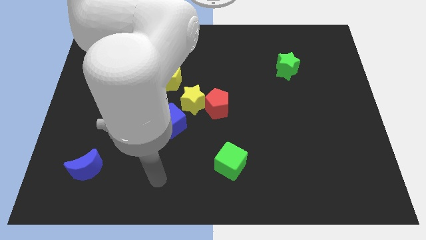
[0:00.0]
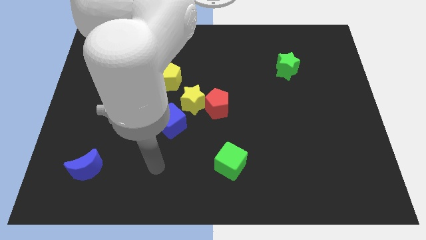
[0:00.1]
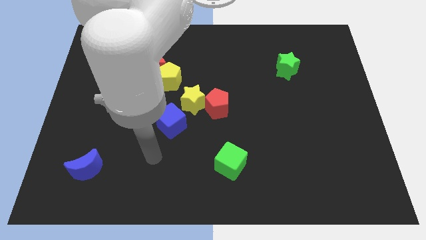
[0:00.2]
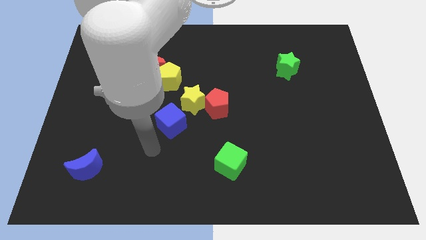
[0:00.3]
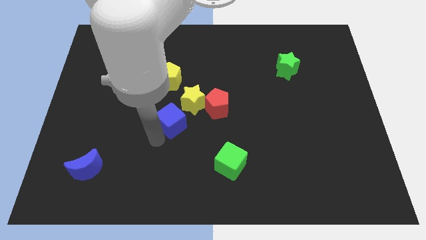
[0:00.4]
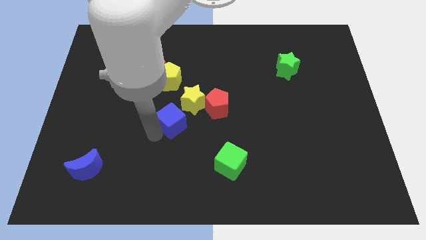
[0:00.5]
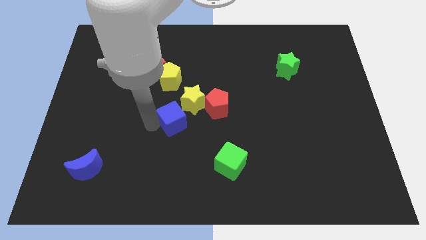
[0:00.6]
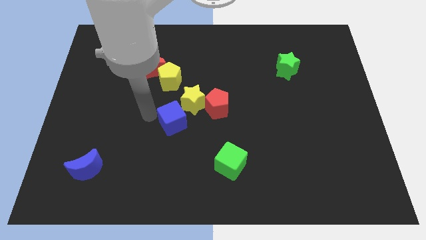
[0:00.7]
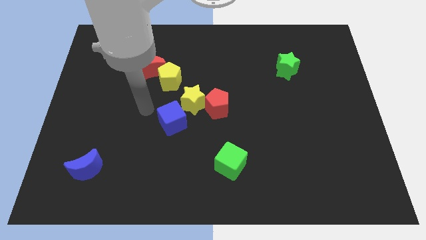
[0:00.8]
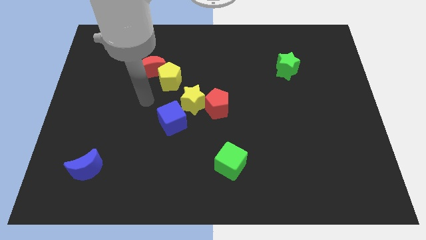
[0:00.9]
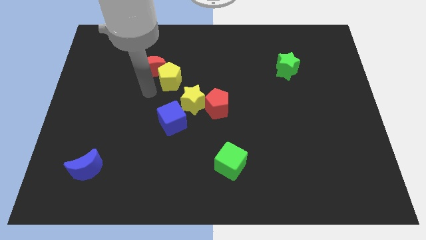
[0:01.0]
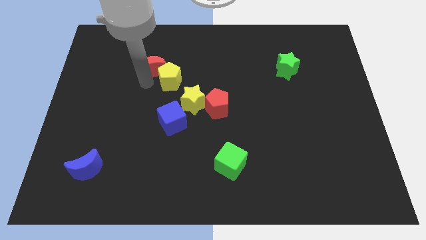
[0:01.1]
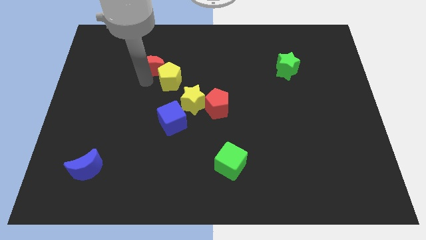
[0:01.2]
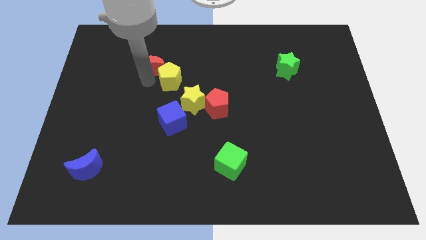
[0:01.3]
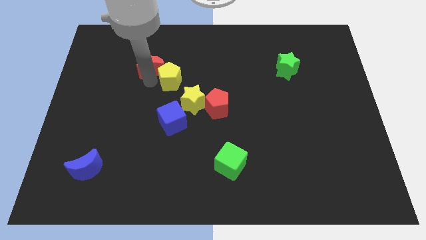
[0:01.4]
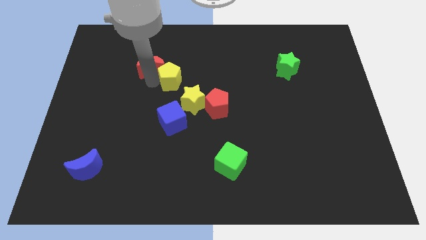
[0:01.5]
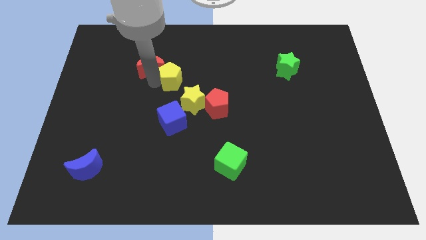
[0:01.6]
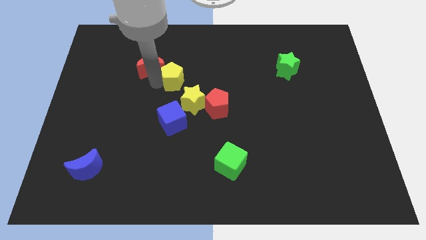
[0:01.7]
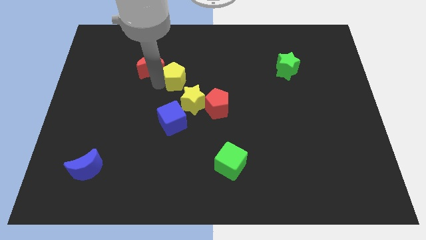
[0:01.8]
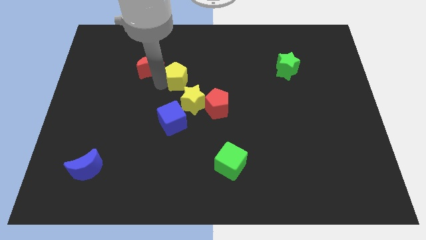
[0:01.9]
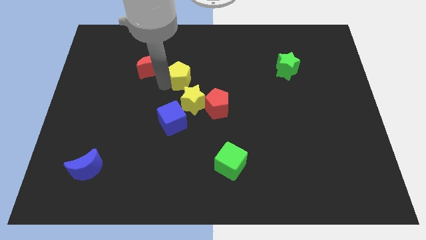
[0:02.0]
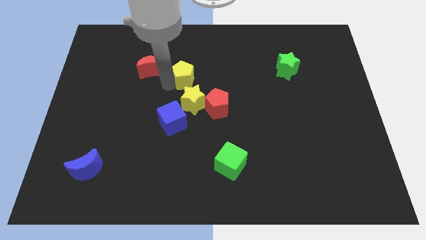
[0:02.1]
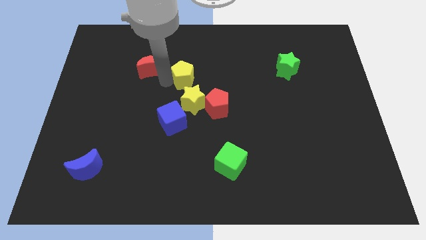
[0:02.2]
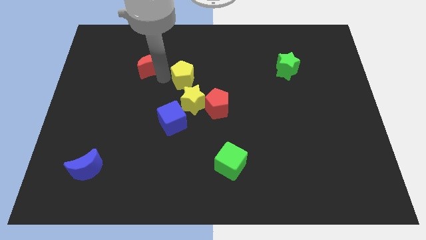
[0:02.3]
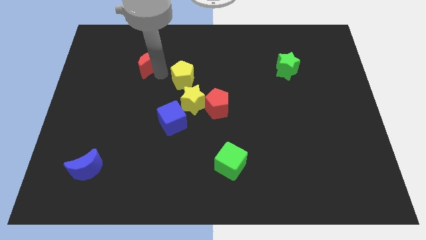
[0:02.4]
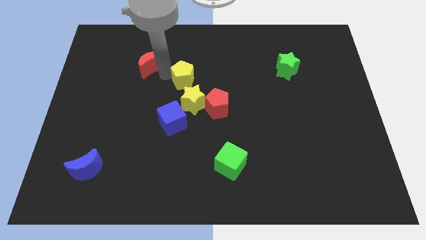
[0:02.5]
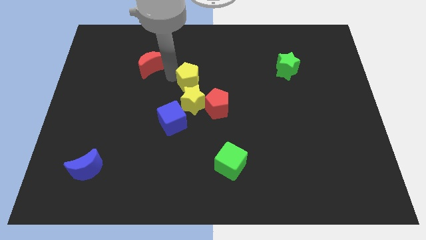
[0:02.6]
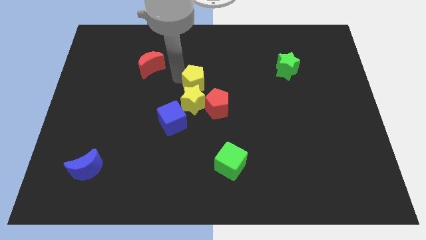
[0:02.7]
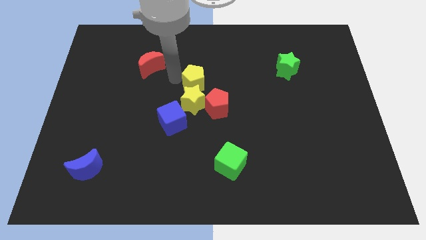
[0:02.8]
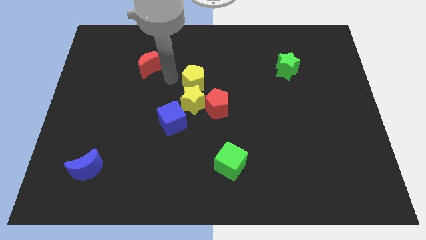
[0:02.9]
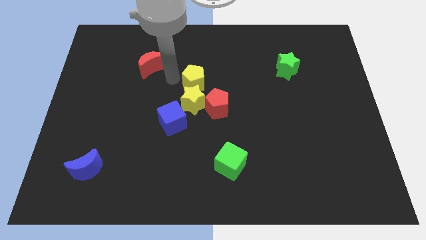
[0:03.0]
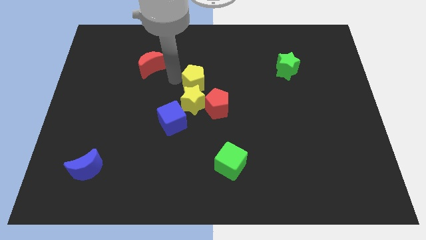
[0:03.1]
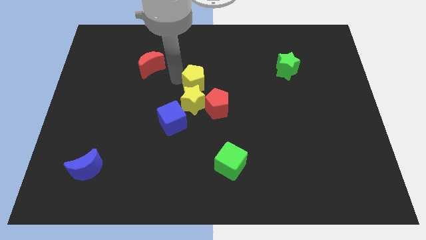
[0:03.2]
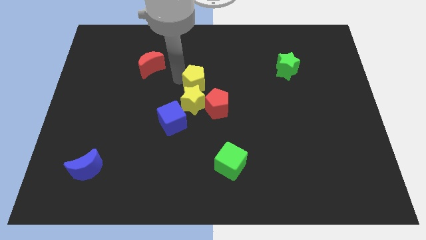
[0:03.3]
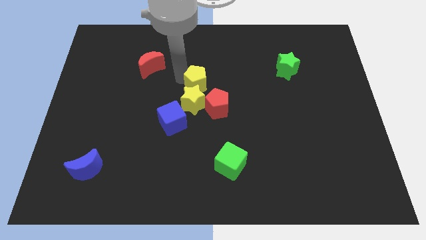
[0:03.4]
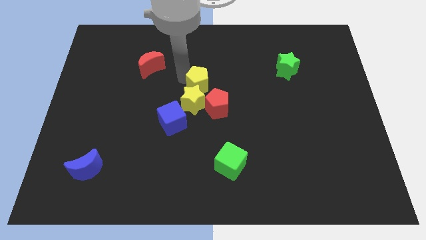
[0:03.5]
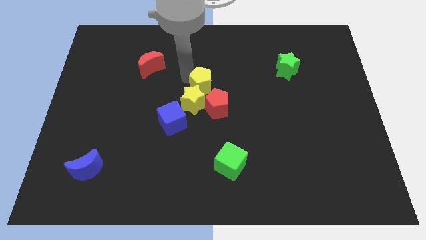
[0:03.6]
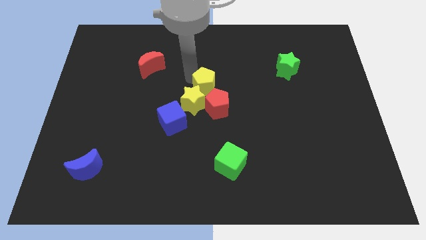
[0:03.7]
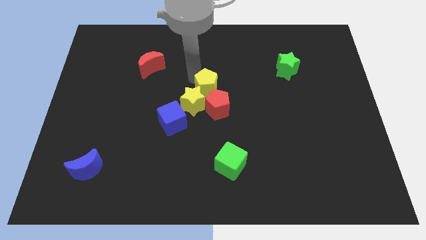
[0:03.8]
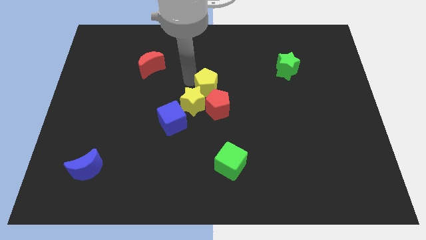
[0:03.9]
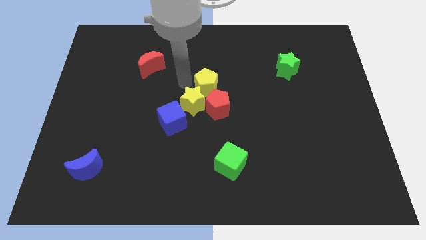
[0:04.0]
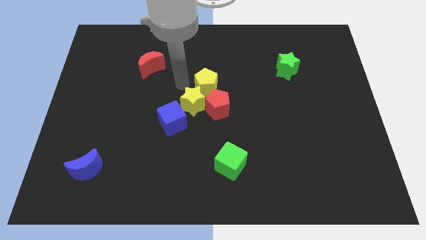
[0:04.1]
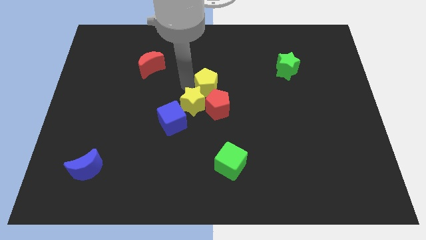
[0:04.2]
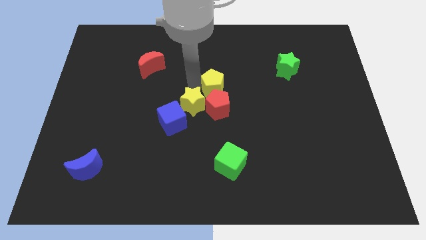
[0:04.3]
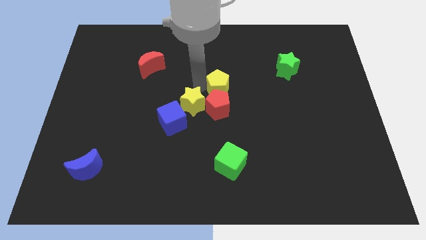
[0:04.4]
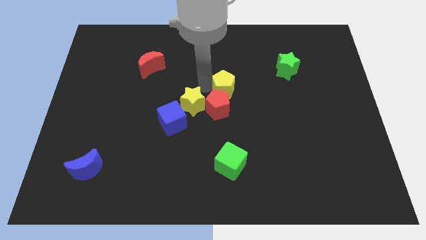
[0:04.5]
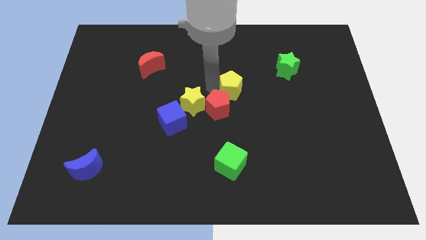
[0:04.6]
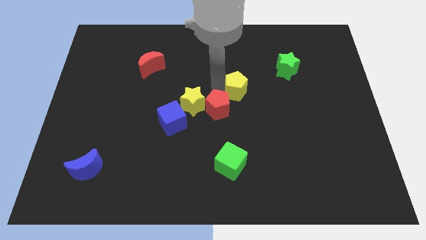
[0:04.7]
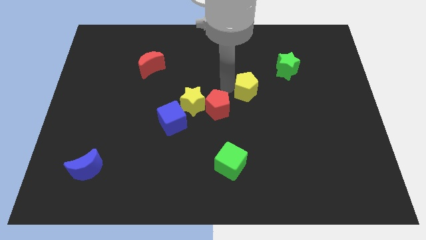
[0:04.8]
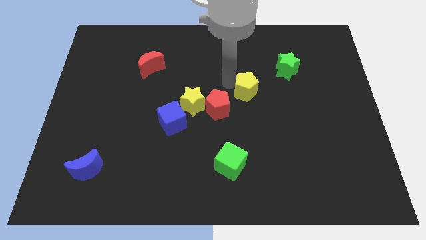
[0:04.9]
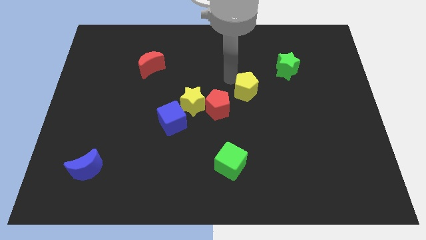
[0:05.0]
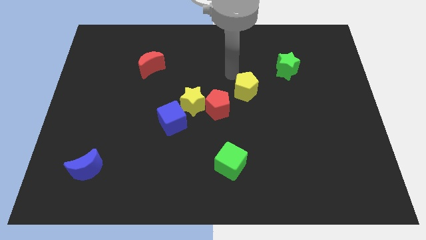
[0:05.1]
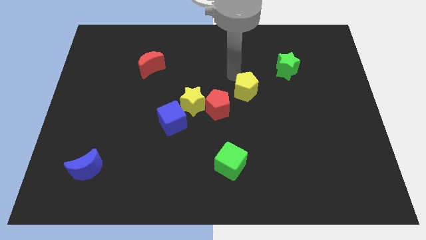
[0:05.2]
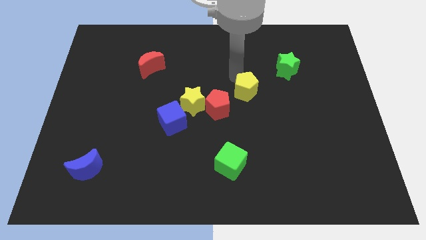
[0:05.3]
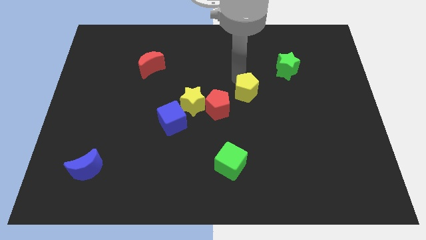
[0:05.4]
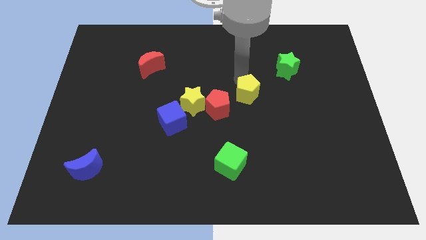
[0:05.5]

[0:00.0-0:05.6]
push the yellow pentagon to the right side of the red pentagon

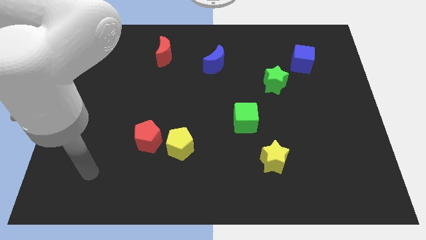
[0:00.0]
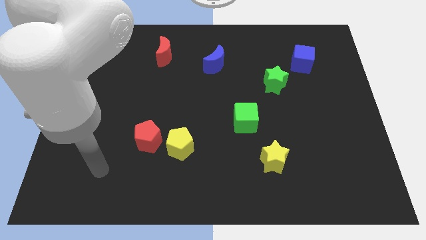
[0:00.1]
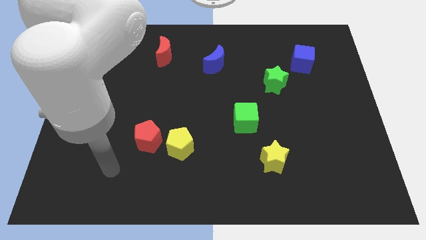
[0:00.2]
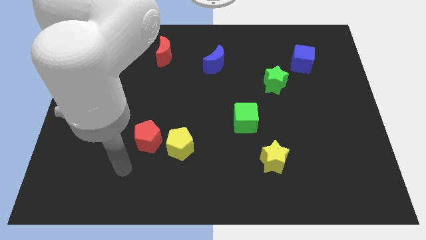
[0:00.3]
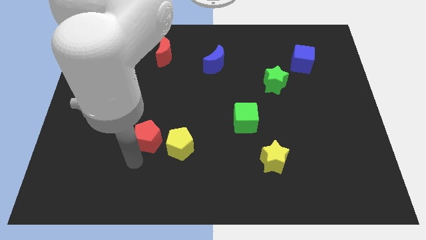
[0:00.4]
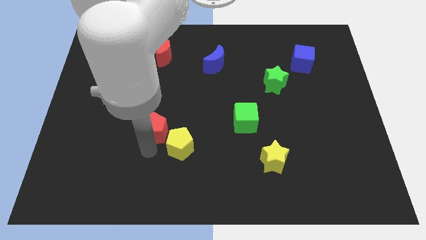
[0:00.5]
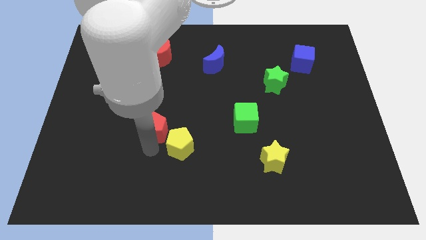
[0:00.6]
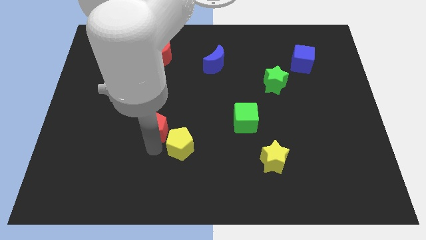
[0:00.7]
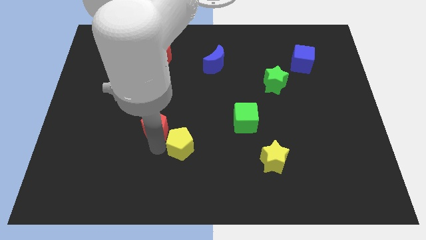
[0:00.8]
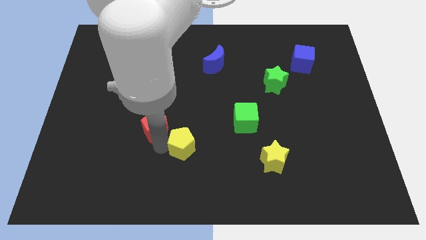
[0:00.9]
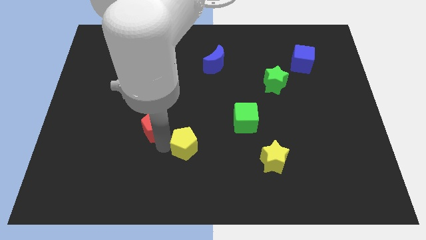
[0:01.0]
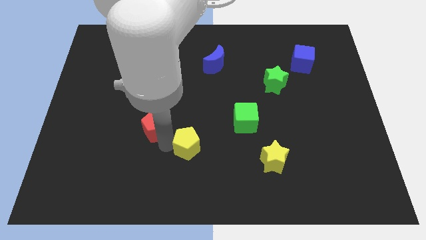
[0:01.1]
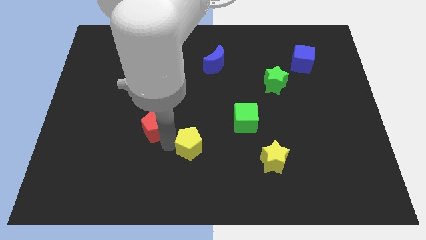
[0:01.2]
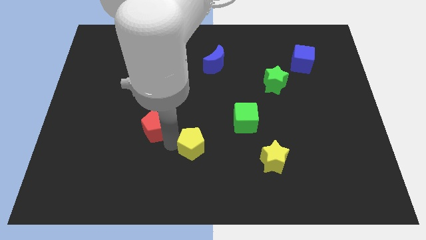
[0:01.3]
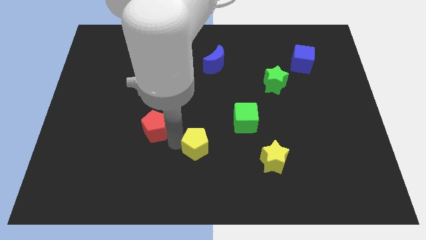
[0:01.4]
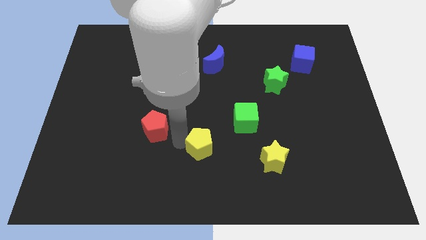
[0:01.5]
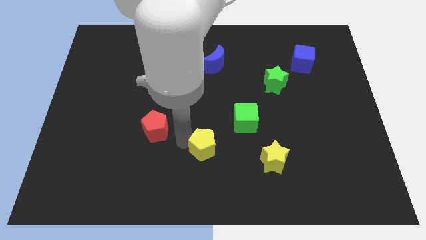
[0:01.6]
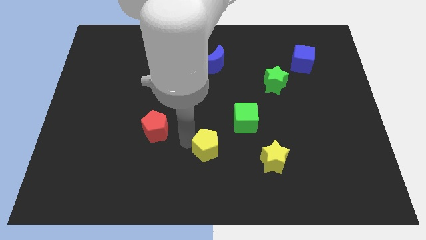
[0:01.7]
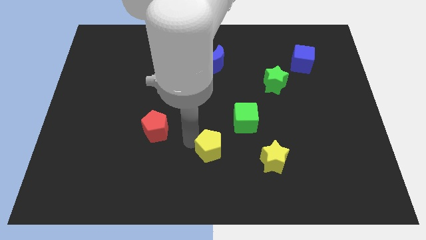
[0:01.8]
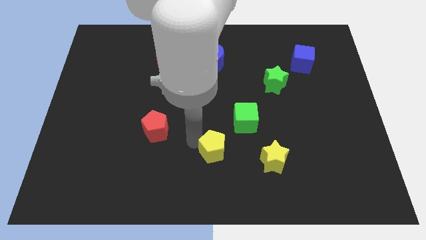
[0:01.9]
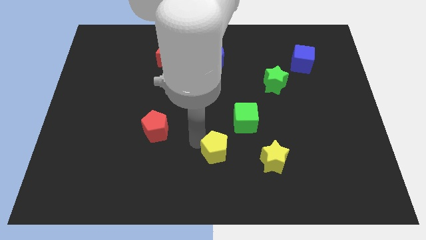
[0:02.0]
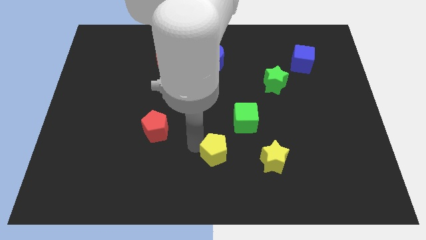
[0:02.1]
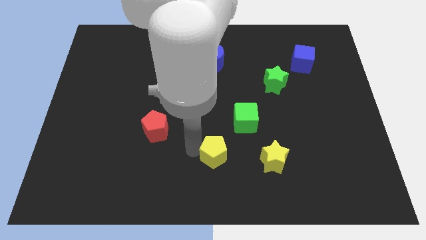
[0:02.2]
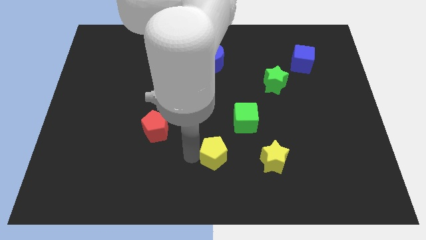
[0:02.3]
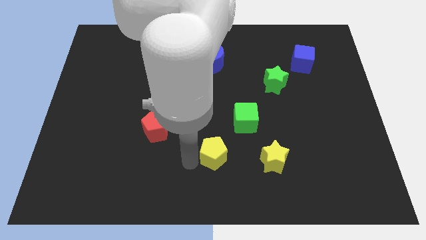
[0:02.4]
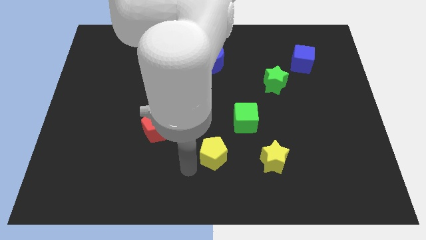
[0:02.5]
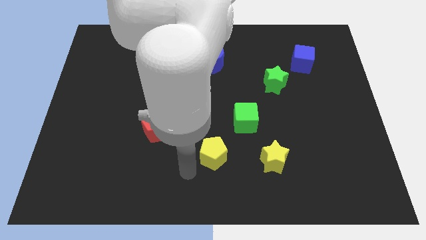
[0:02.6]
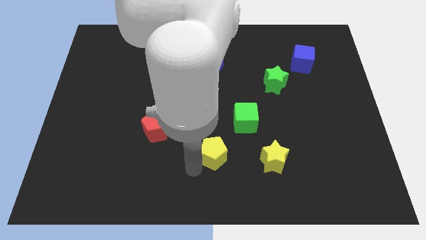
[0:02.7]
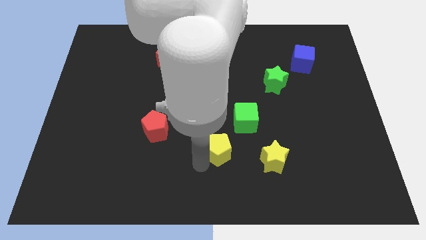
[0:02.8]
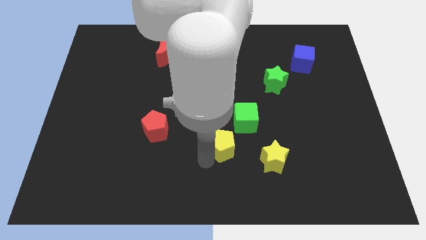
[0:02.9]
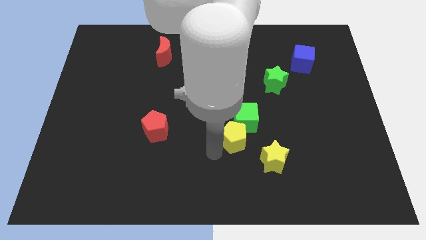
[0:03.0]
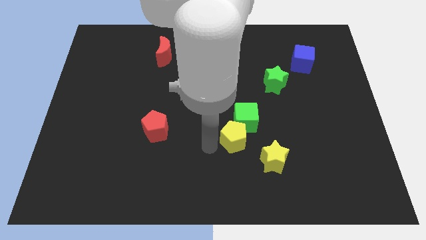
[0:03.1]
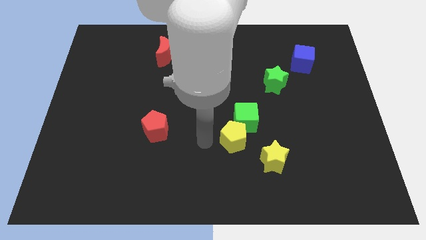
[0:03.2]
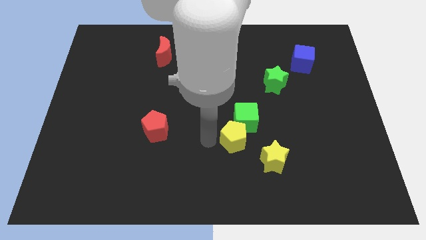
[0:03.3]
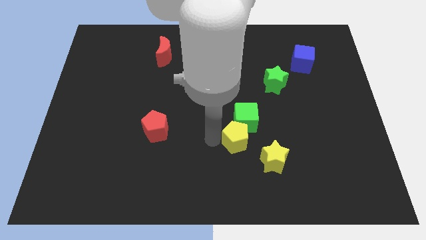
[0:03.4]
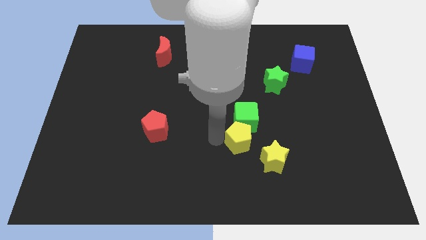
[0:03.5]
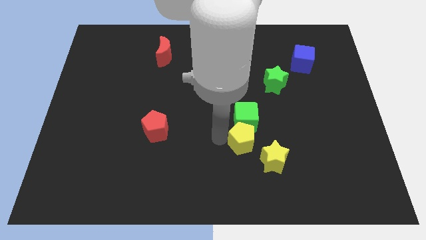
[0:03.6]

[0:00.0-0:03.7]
put the yellow pentagon to the bottom right of the green cube
